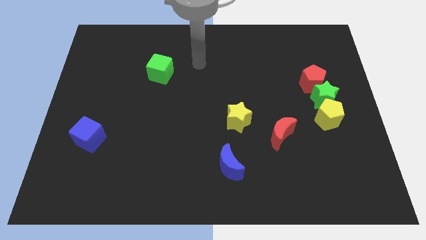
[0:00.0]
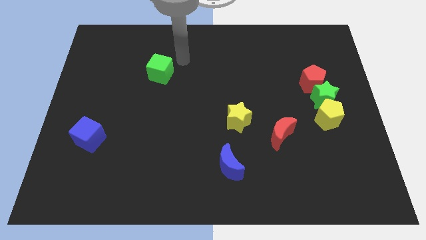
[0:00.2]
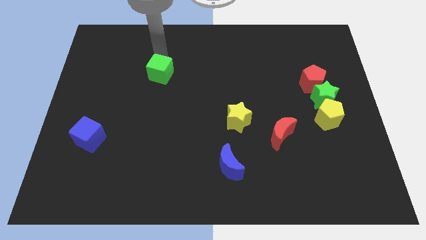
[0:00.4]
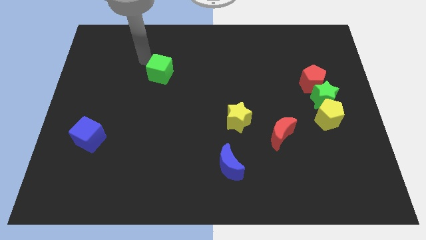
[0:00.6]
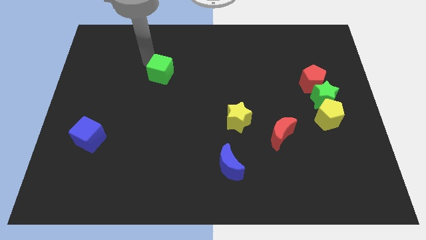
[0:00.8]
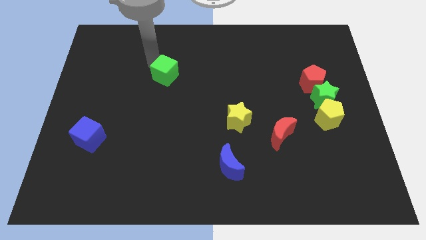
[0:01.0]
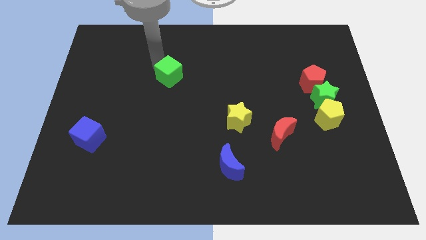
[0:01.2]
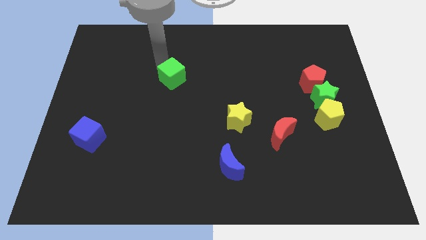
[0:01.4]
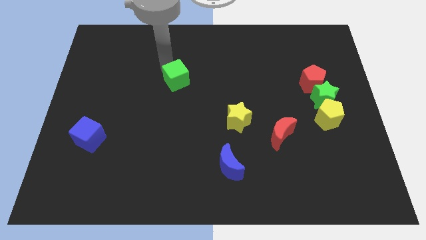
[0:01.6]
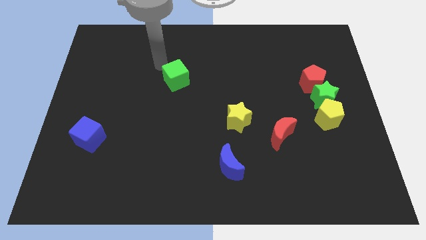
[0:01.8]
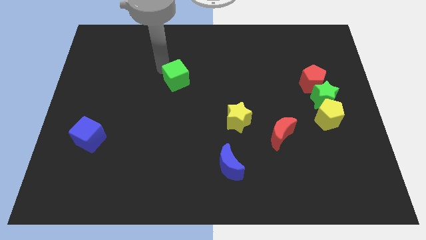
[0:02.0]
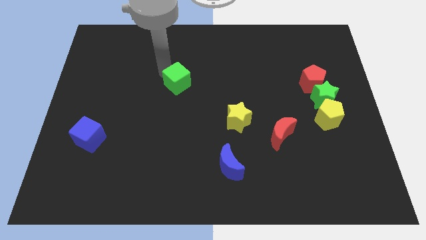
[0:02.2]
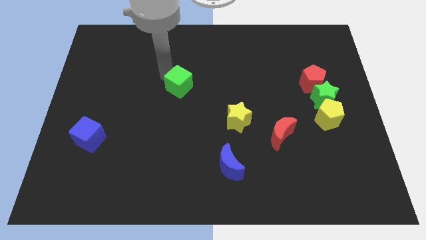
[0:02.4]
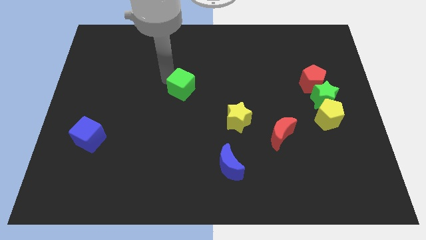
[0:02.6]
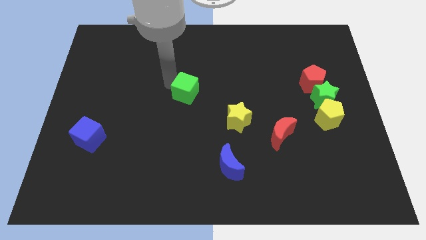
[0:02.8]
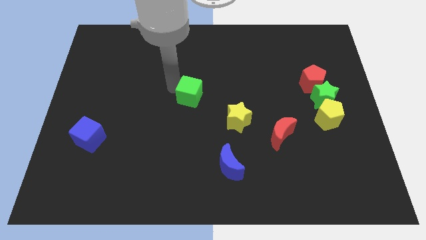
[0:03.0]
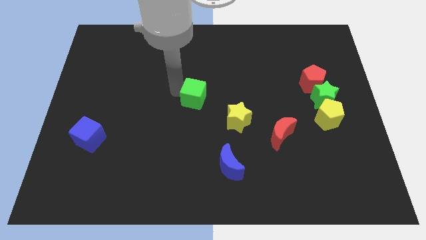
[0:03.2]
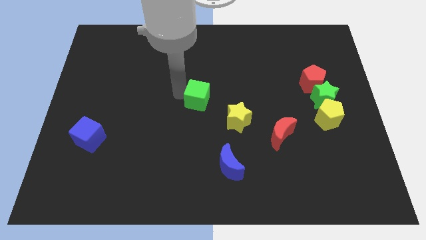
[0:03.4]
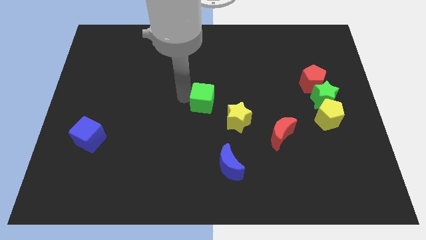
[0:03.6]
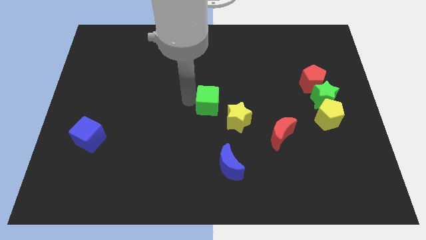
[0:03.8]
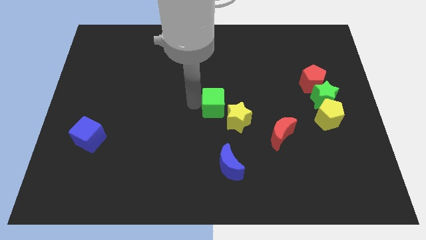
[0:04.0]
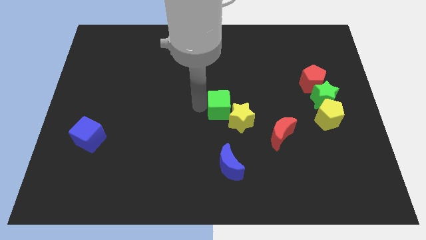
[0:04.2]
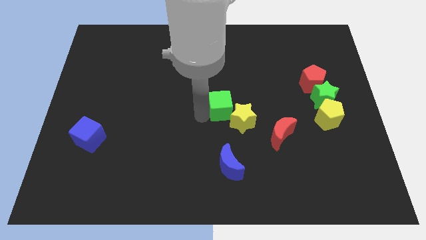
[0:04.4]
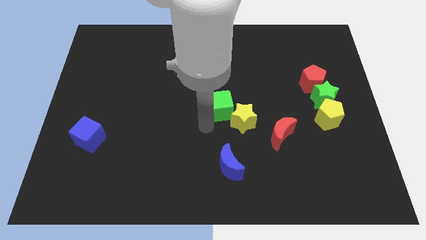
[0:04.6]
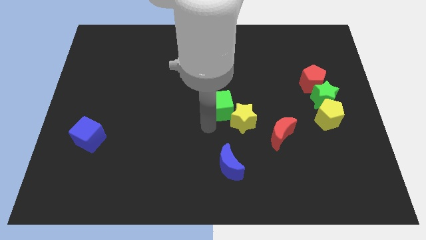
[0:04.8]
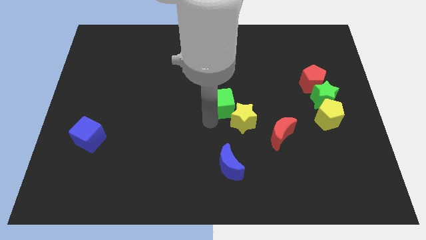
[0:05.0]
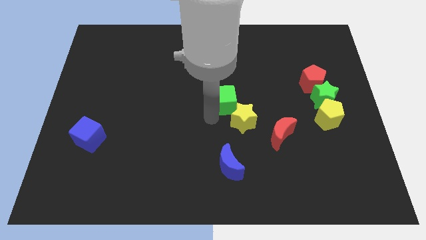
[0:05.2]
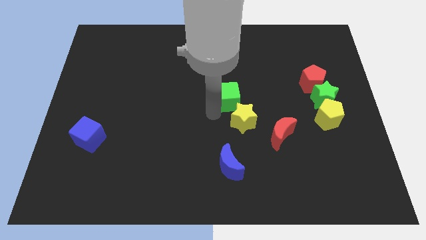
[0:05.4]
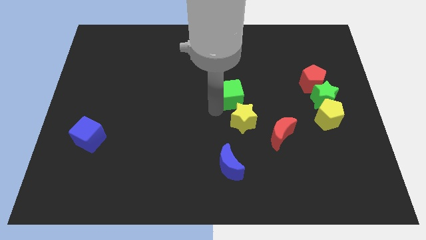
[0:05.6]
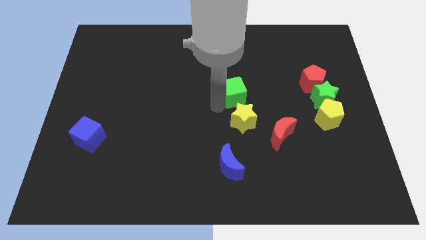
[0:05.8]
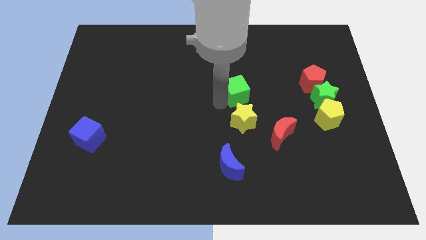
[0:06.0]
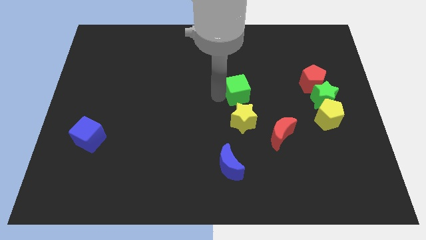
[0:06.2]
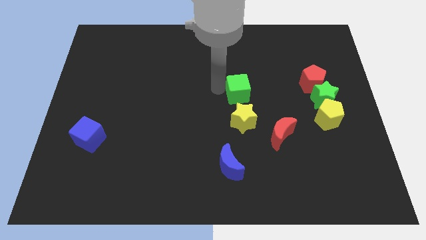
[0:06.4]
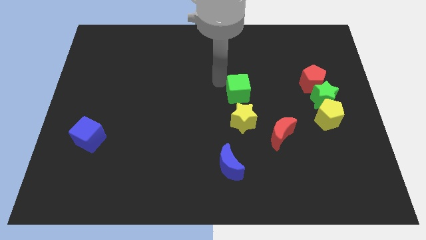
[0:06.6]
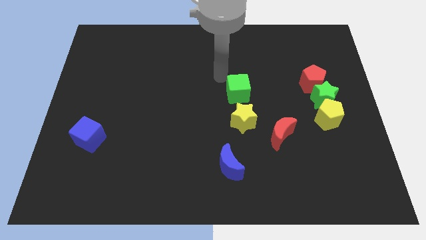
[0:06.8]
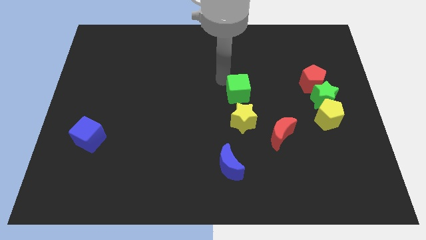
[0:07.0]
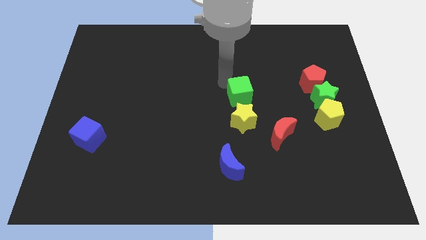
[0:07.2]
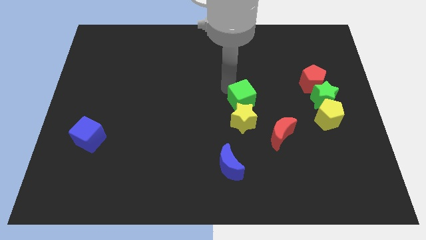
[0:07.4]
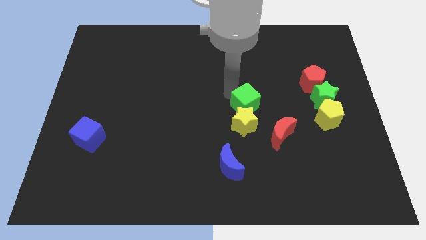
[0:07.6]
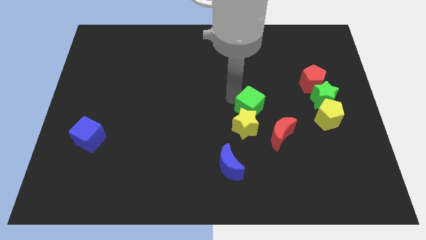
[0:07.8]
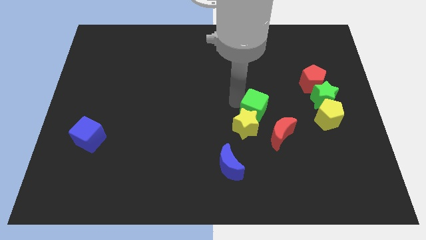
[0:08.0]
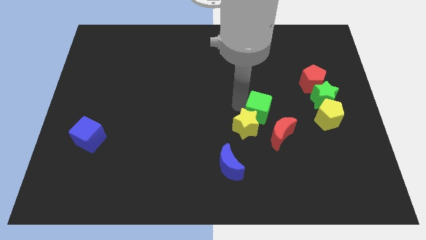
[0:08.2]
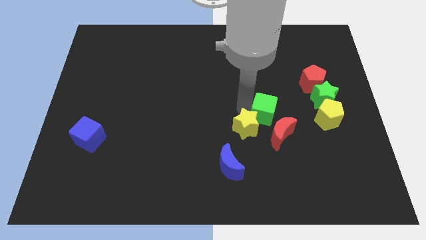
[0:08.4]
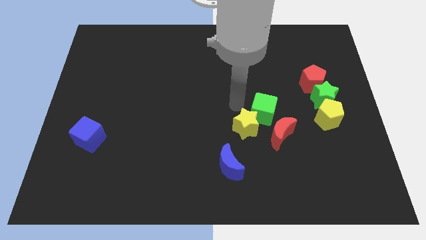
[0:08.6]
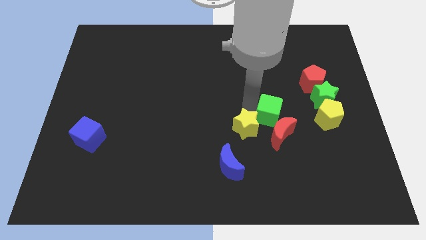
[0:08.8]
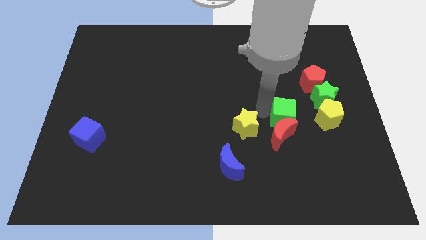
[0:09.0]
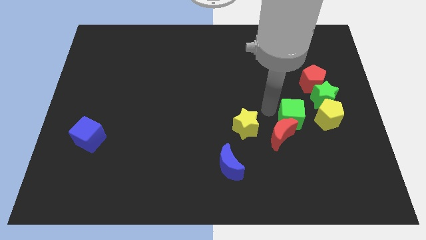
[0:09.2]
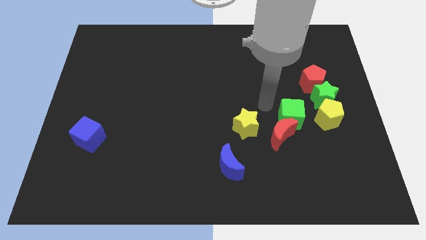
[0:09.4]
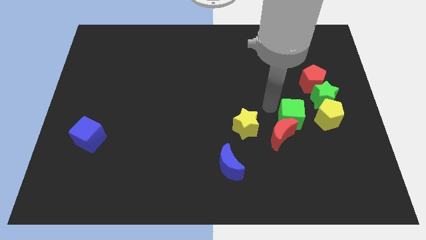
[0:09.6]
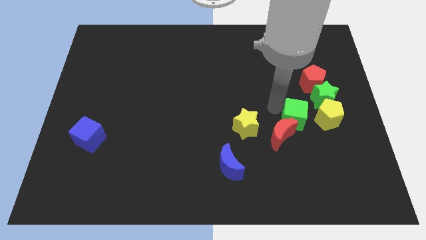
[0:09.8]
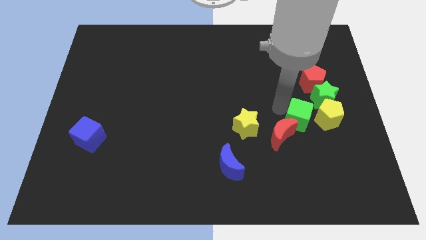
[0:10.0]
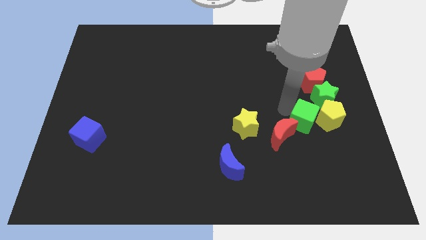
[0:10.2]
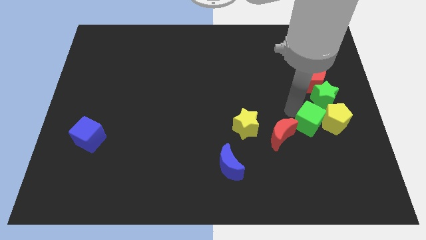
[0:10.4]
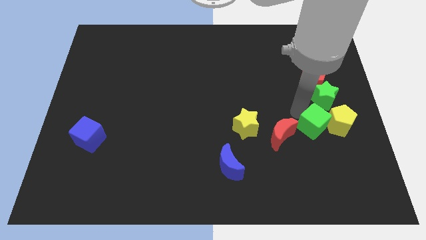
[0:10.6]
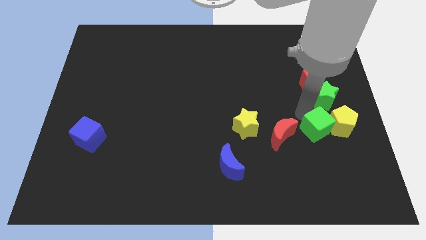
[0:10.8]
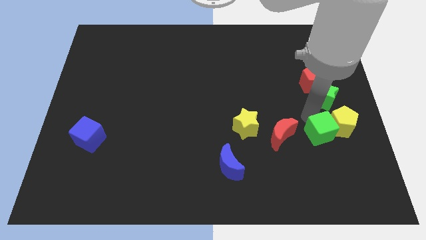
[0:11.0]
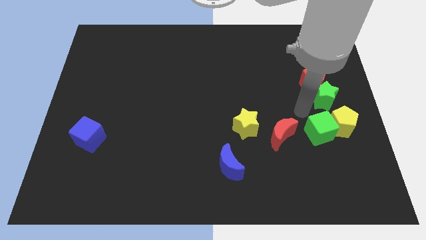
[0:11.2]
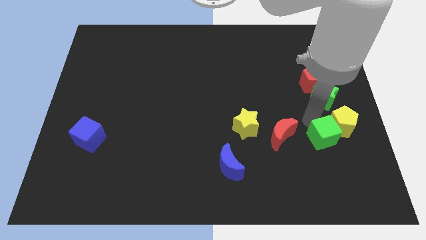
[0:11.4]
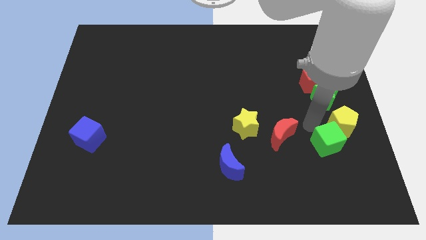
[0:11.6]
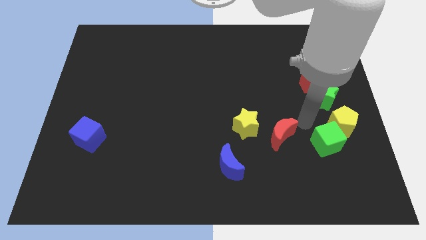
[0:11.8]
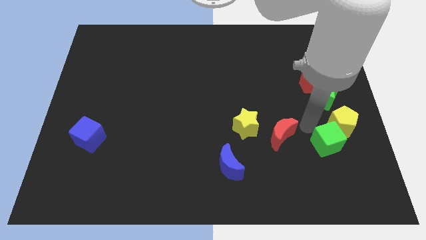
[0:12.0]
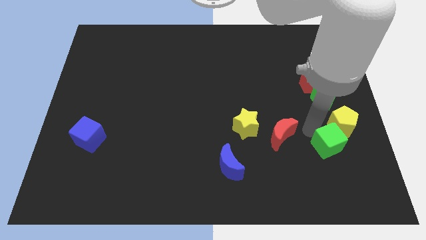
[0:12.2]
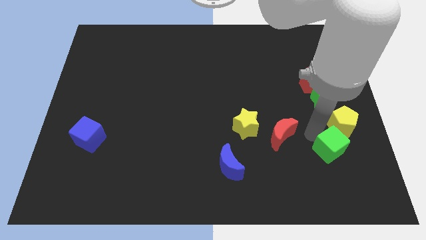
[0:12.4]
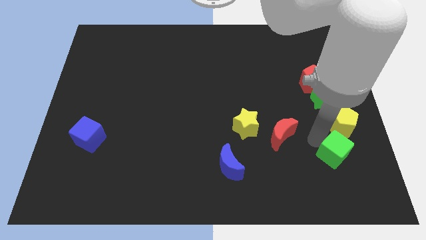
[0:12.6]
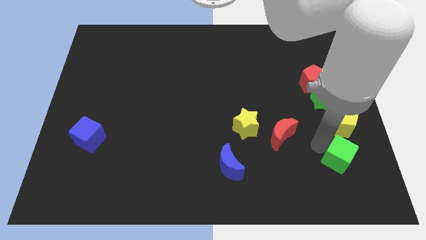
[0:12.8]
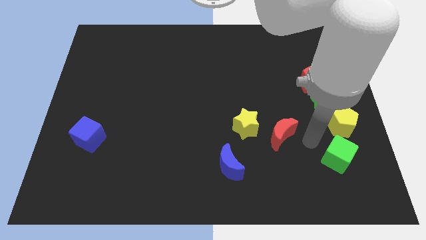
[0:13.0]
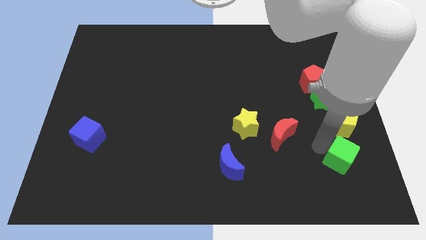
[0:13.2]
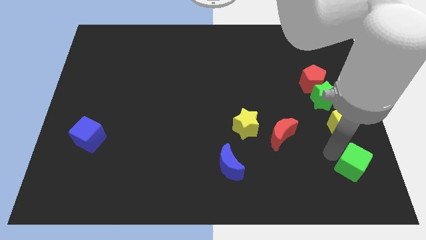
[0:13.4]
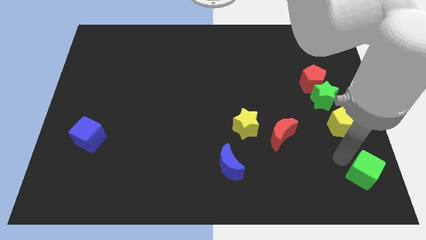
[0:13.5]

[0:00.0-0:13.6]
move the green cube to the bottom right
